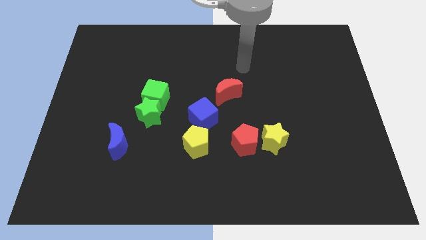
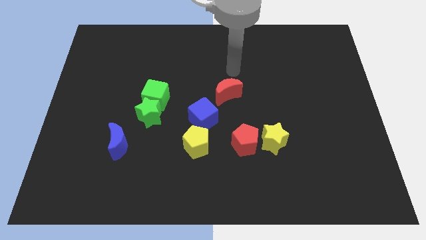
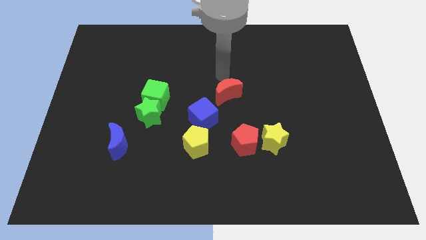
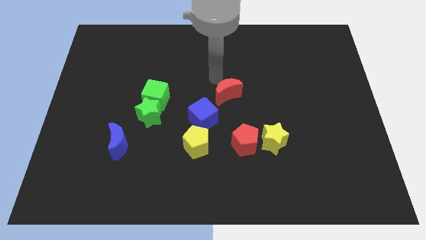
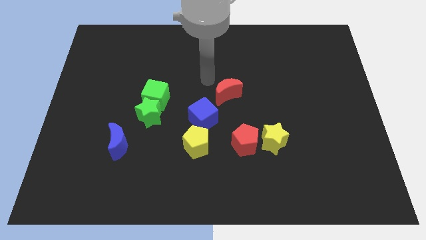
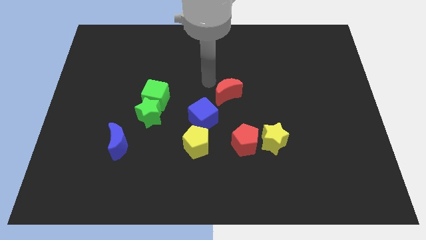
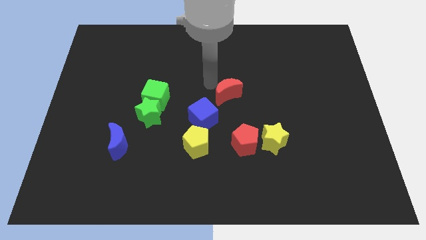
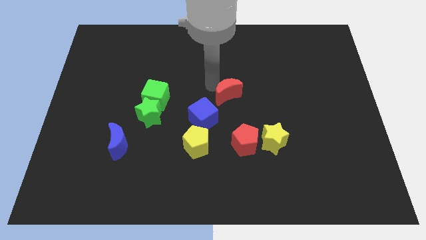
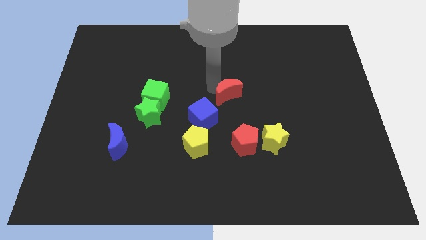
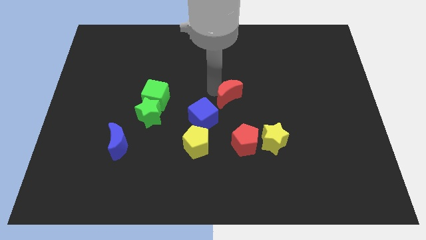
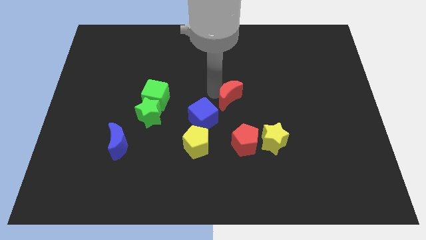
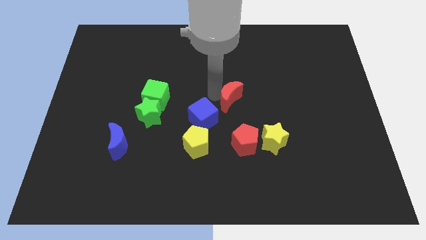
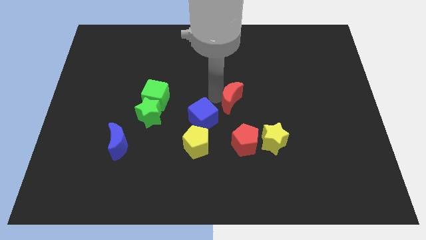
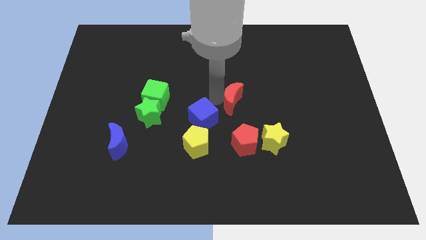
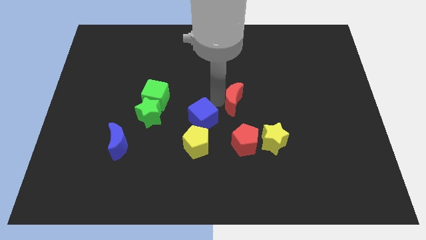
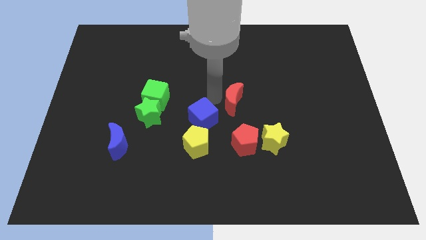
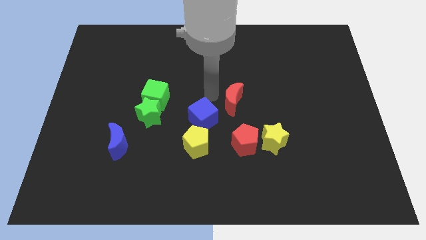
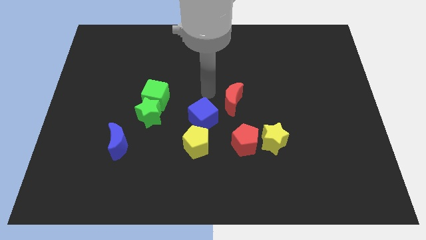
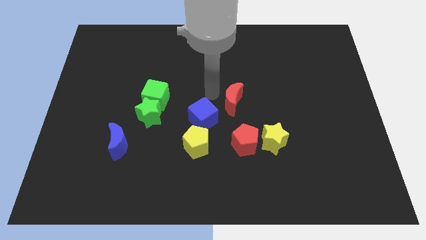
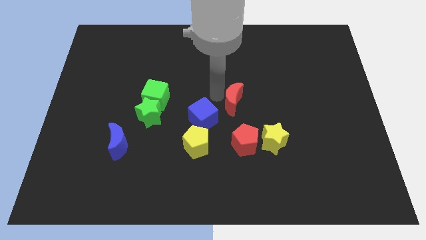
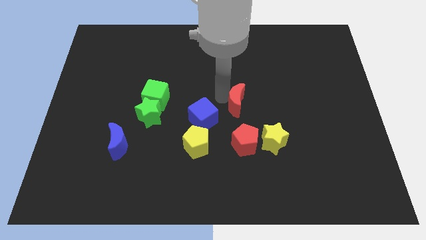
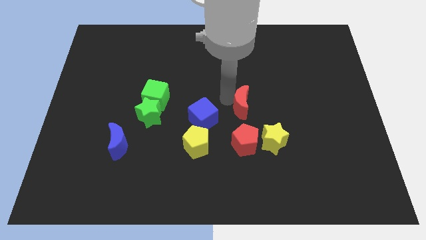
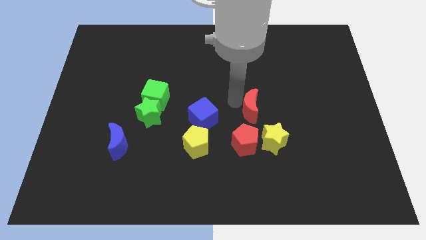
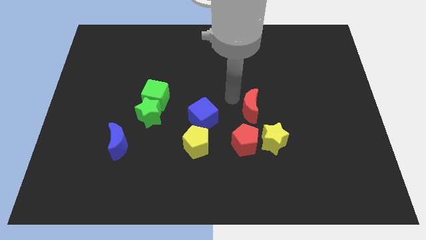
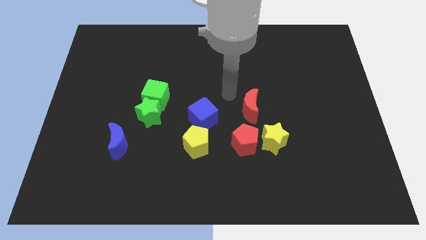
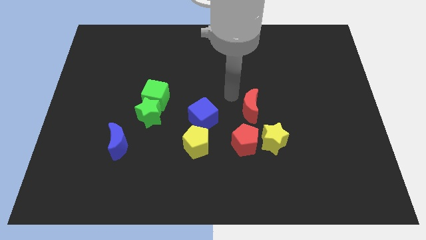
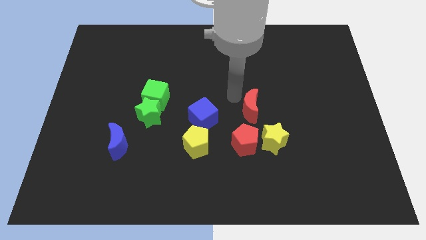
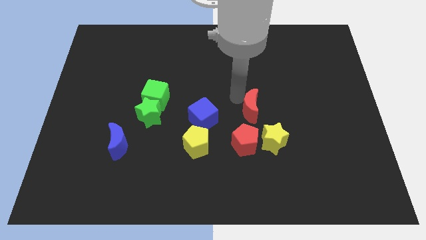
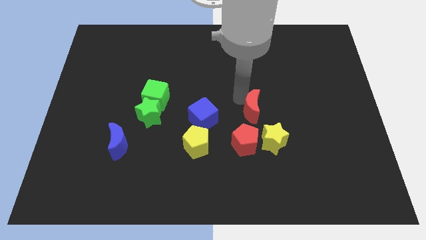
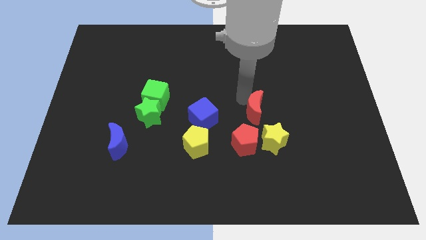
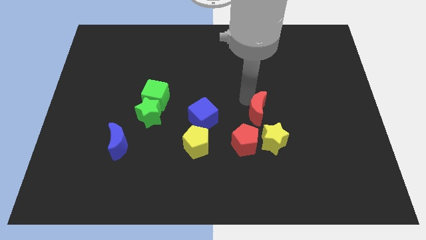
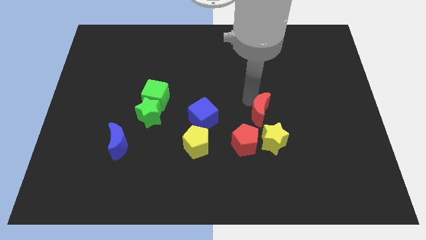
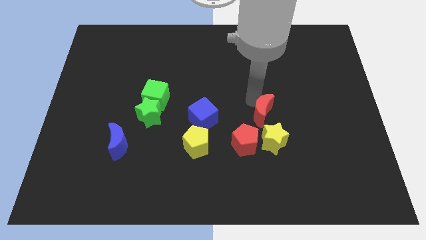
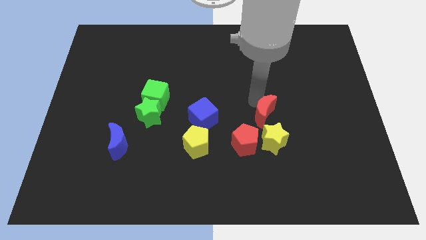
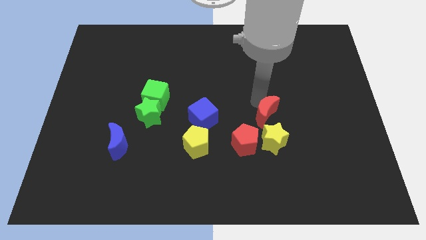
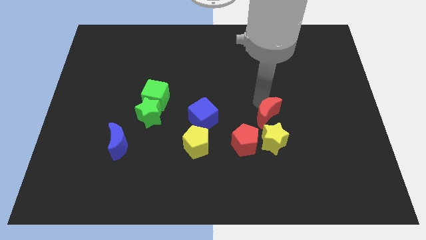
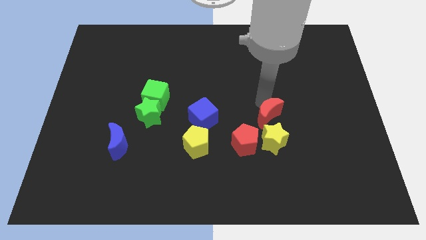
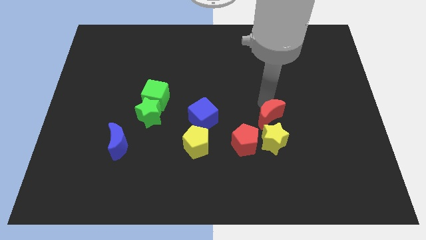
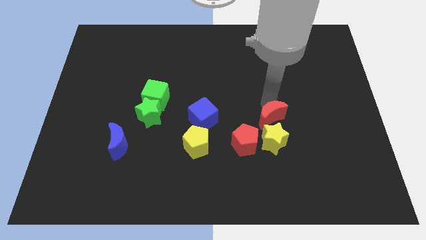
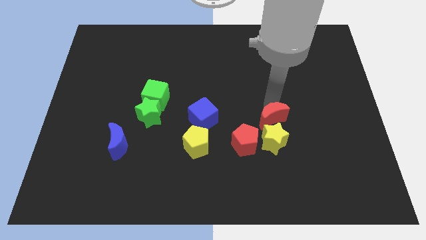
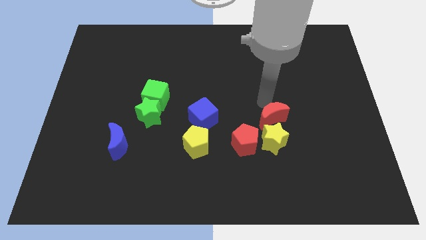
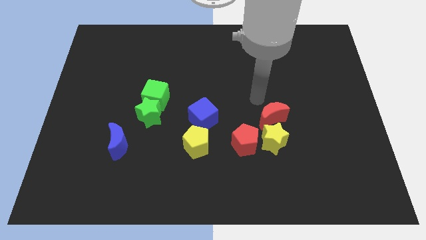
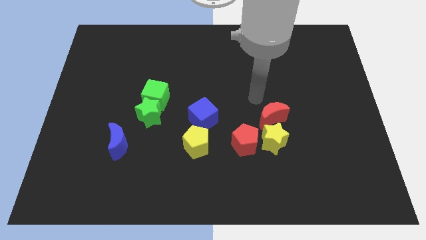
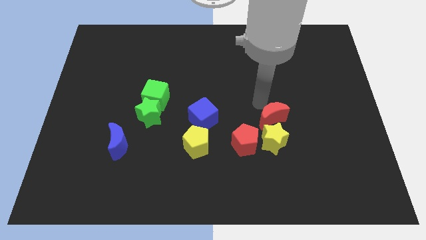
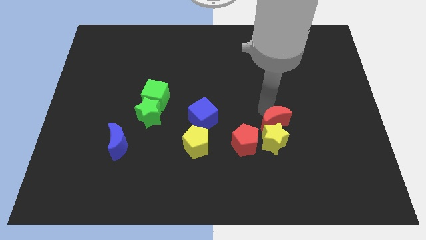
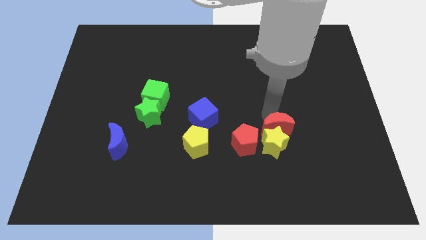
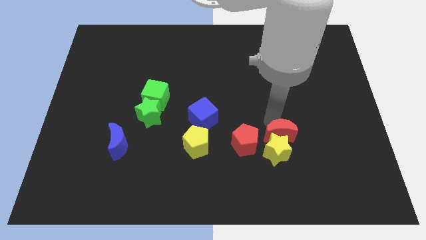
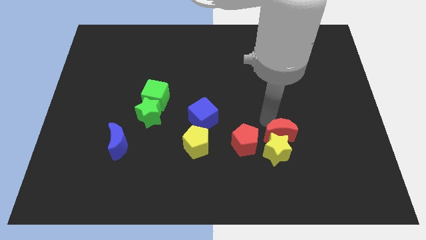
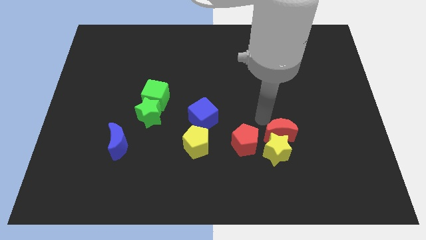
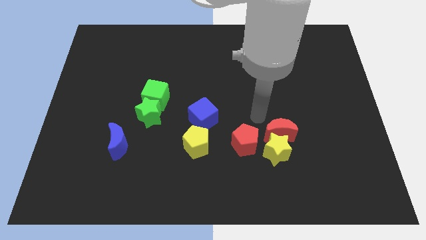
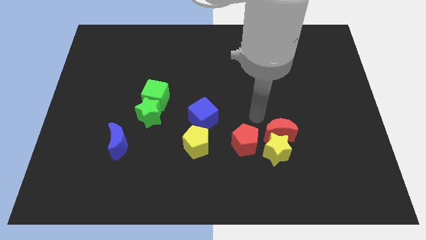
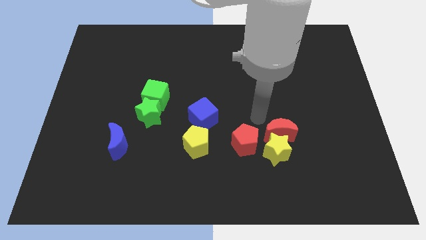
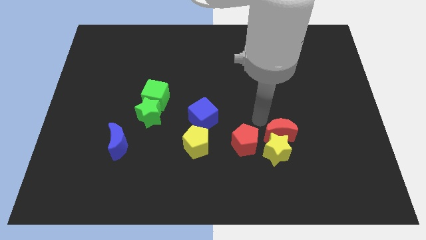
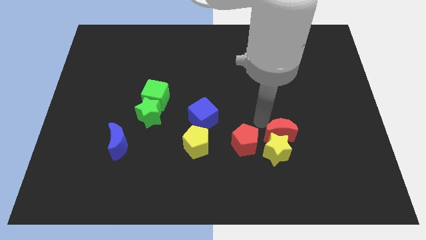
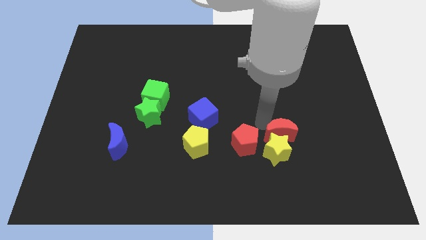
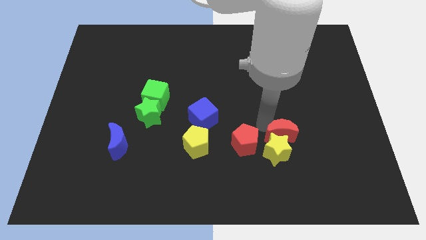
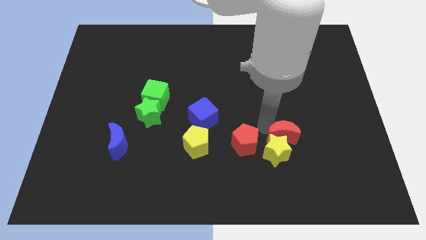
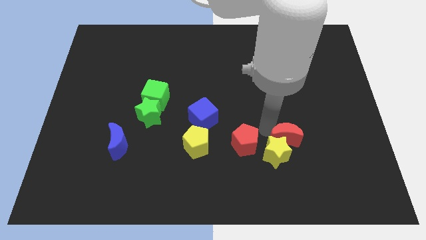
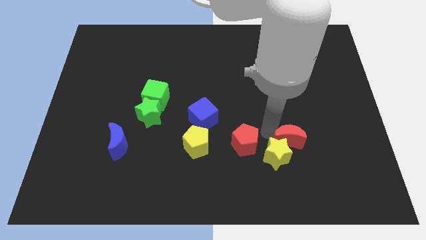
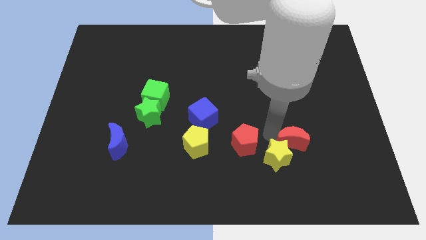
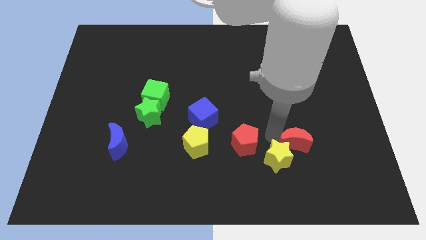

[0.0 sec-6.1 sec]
move the red moon diagonally downwards and to the right

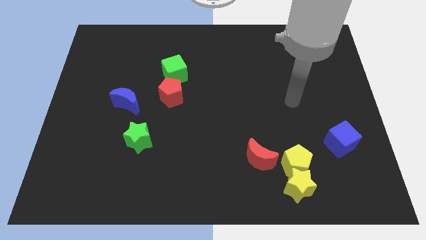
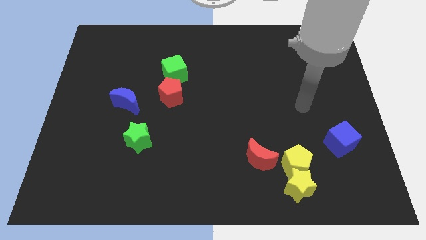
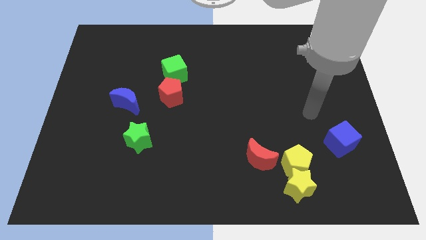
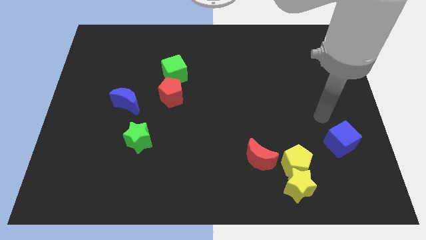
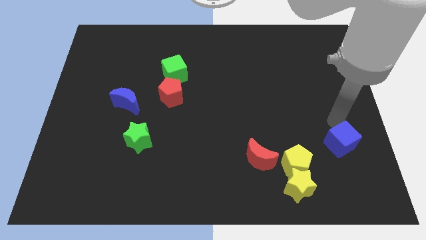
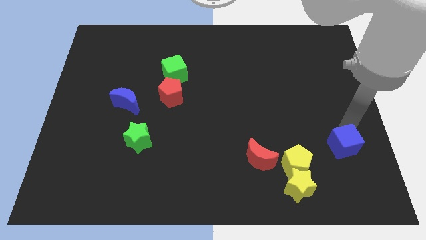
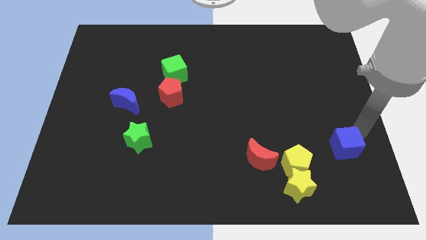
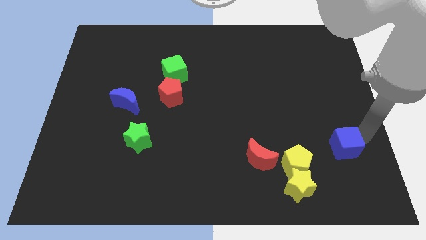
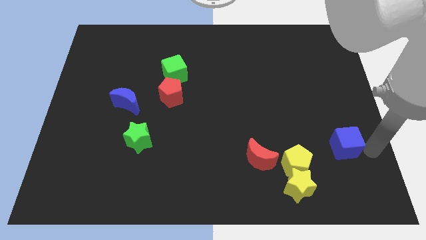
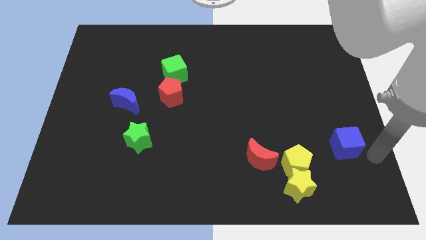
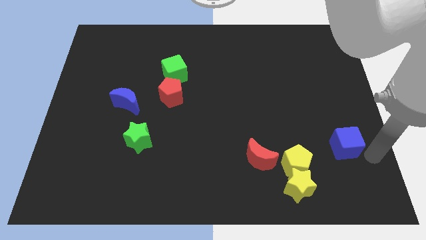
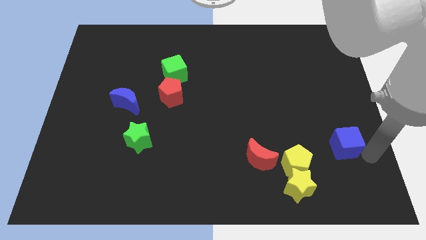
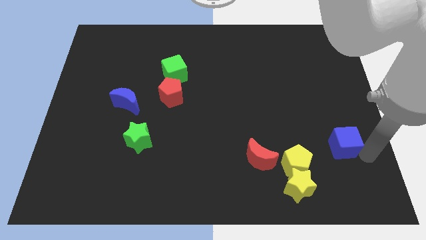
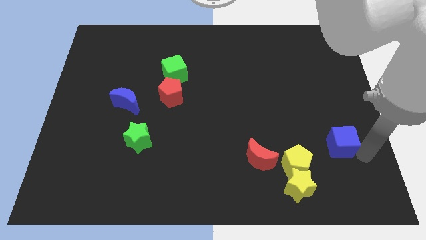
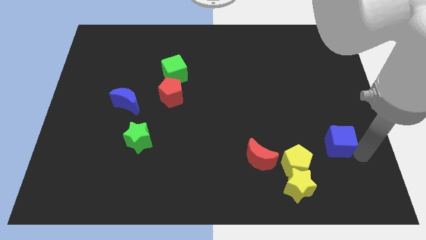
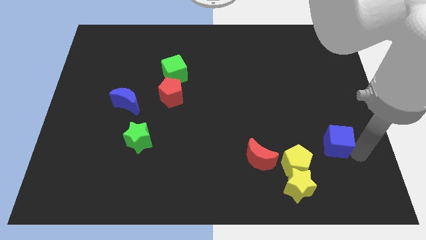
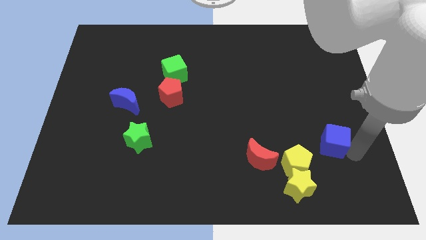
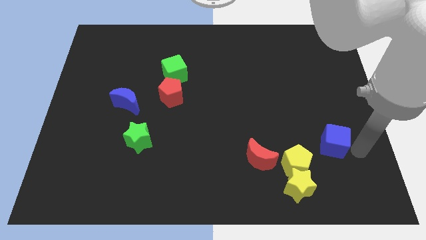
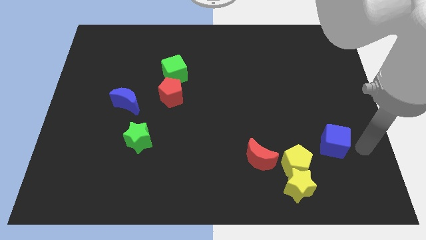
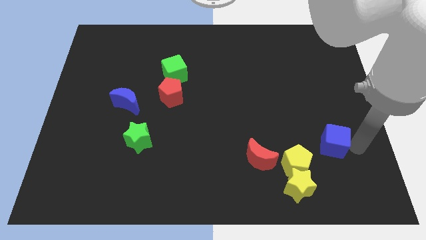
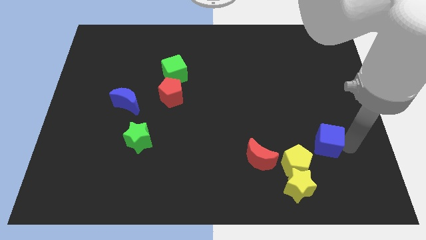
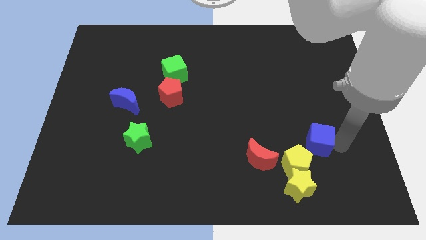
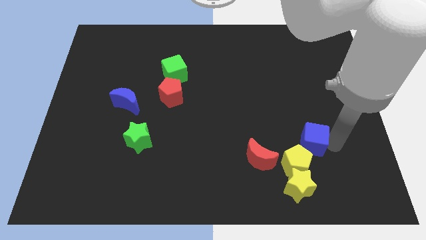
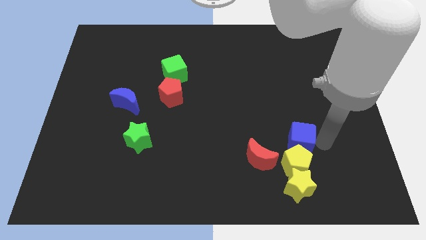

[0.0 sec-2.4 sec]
push the blue cube left a bit
